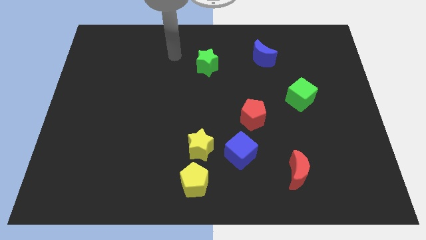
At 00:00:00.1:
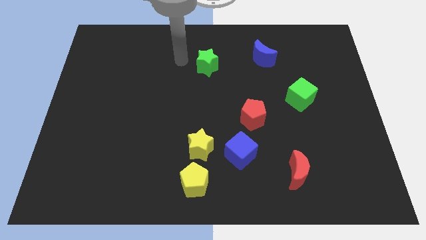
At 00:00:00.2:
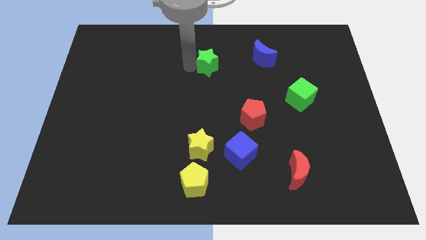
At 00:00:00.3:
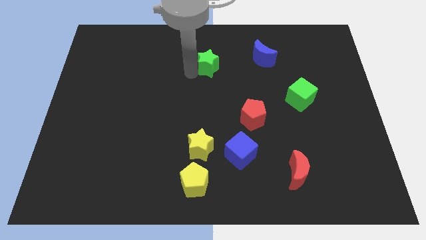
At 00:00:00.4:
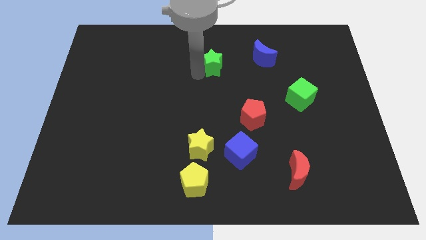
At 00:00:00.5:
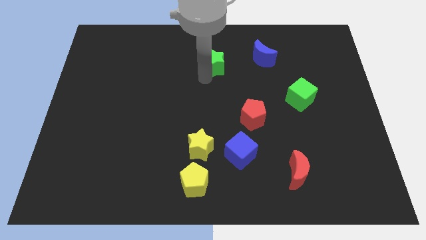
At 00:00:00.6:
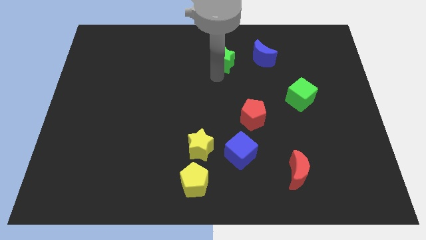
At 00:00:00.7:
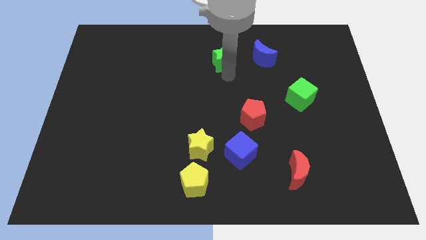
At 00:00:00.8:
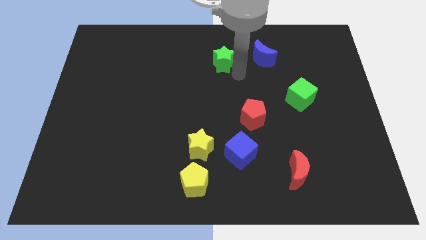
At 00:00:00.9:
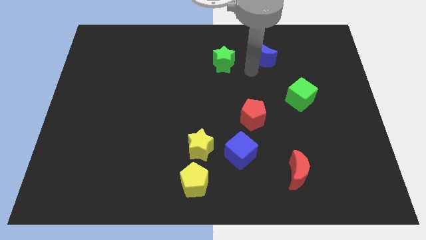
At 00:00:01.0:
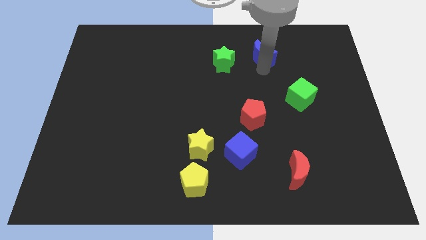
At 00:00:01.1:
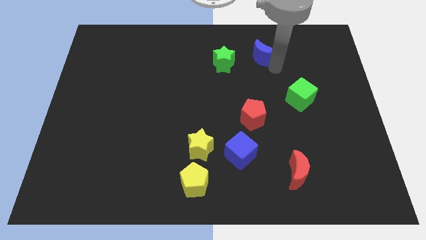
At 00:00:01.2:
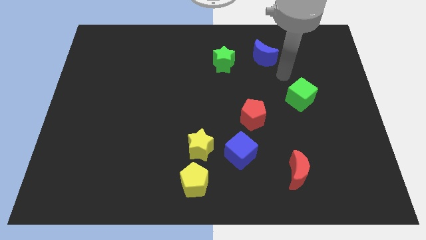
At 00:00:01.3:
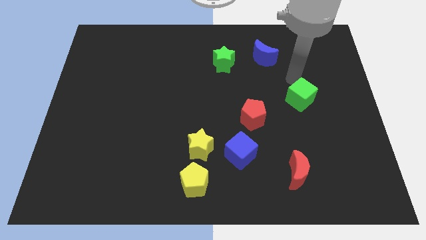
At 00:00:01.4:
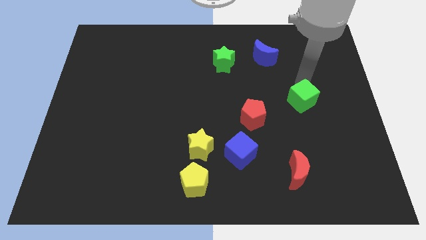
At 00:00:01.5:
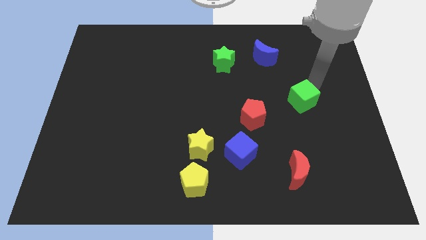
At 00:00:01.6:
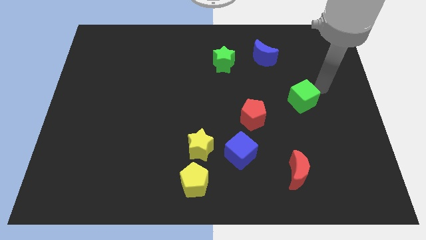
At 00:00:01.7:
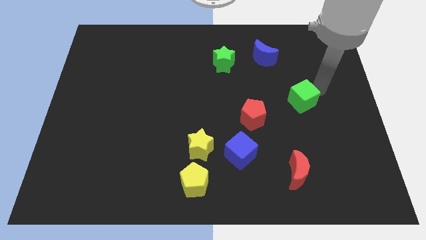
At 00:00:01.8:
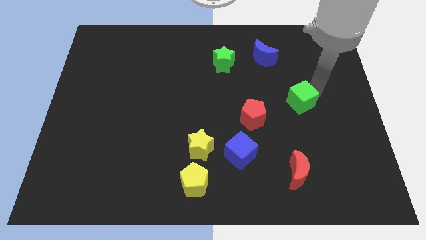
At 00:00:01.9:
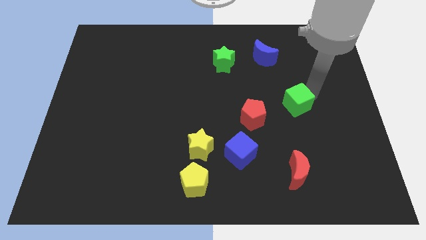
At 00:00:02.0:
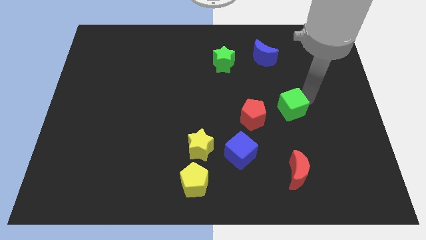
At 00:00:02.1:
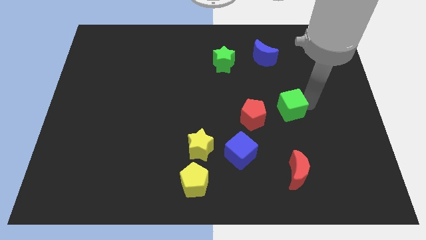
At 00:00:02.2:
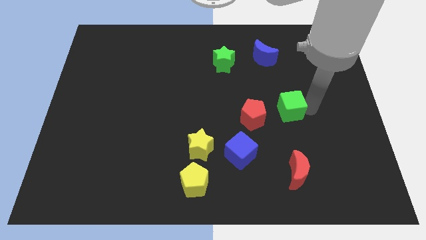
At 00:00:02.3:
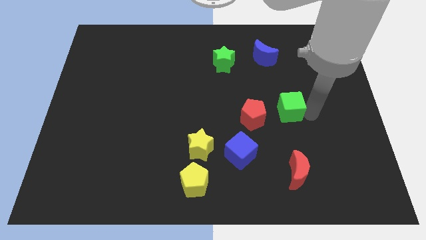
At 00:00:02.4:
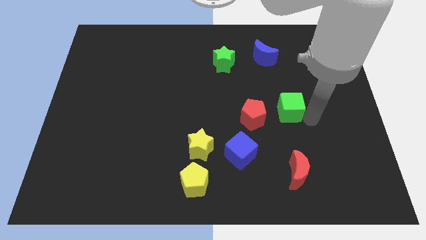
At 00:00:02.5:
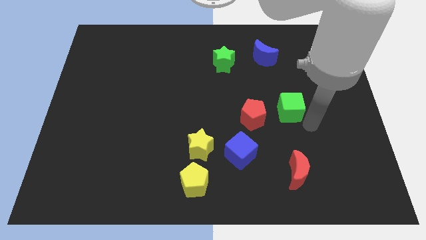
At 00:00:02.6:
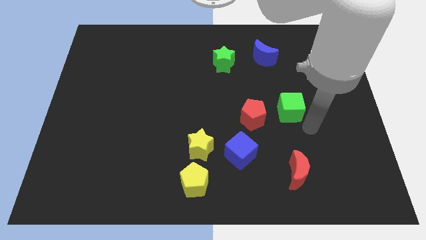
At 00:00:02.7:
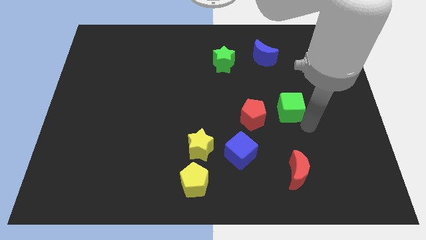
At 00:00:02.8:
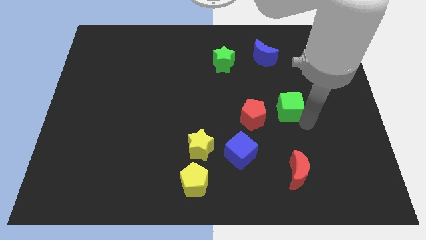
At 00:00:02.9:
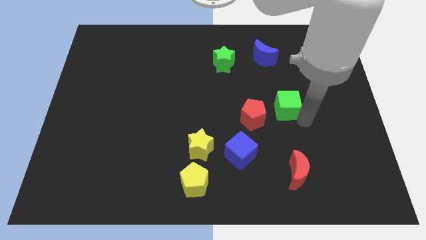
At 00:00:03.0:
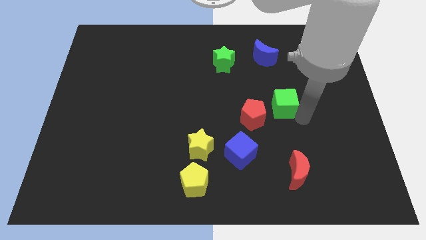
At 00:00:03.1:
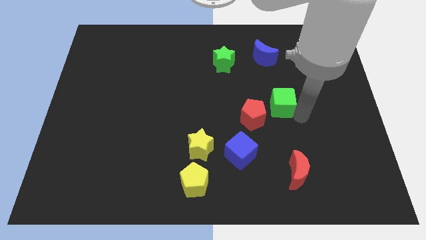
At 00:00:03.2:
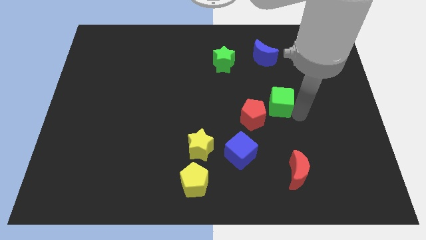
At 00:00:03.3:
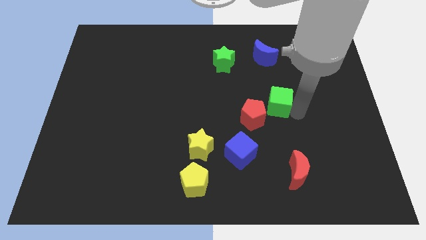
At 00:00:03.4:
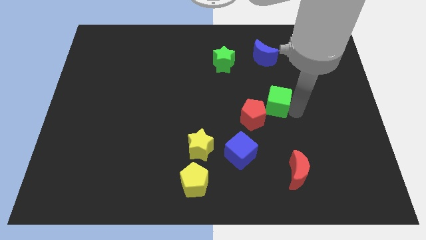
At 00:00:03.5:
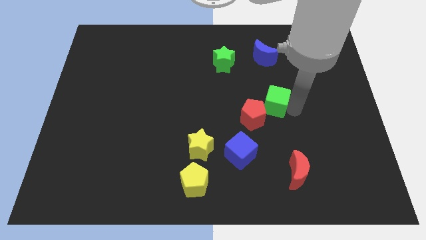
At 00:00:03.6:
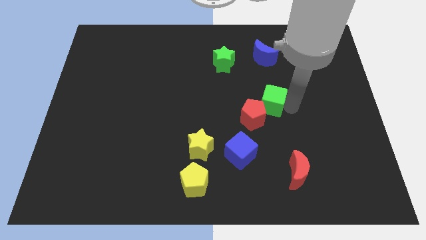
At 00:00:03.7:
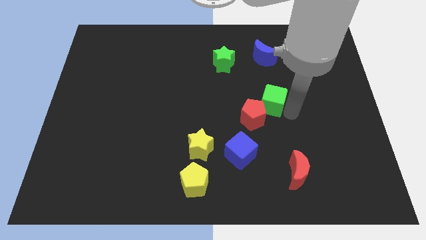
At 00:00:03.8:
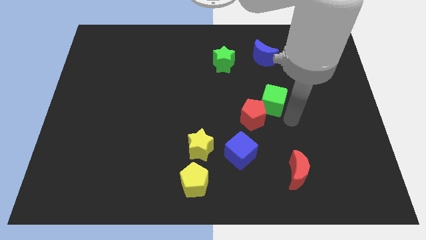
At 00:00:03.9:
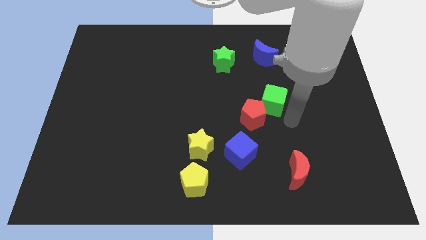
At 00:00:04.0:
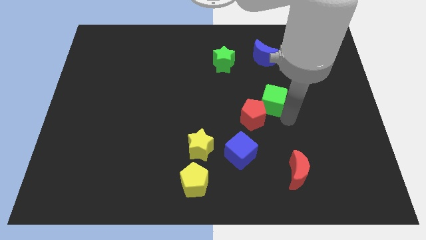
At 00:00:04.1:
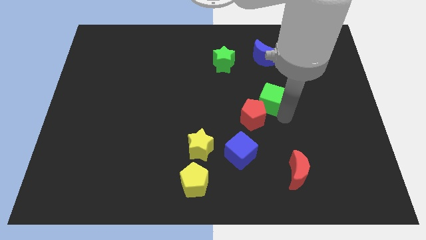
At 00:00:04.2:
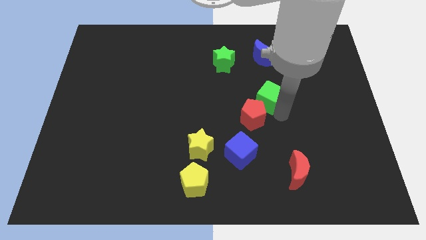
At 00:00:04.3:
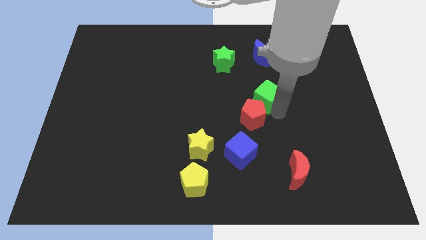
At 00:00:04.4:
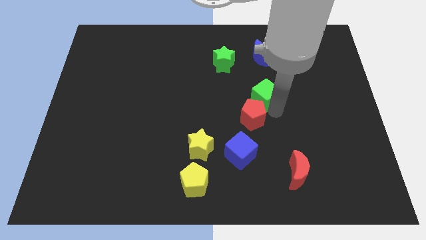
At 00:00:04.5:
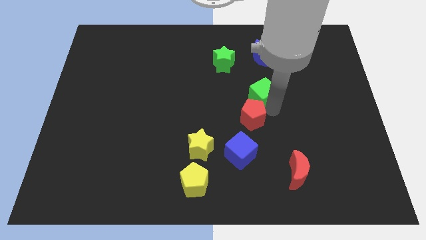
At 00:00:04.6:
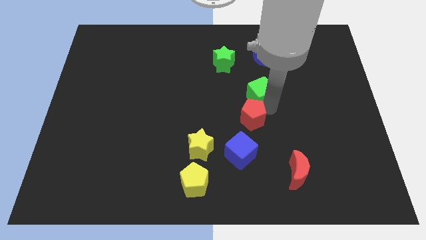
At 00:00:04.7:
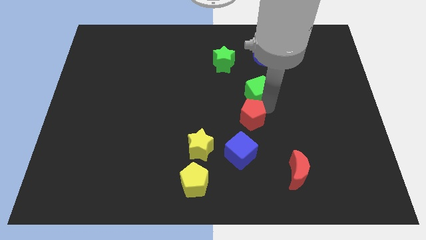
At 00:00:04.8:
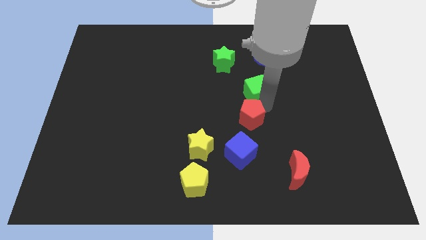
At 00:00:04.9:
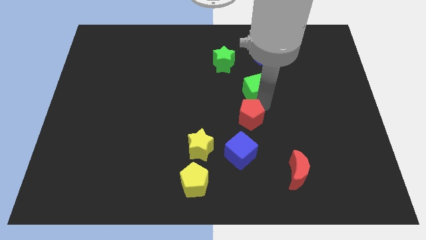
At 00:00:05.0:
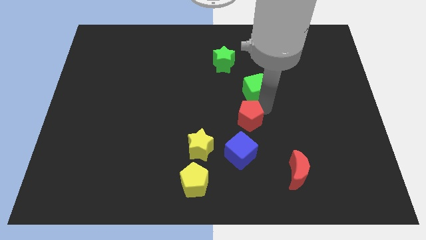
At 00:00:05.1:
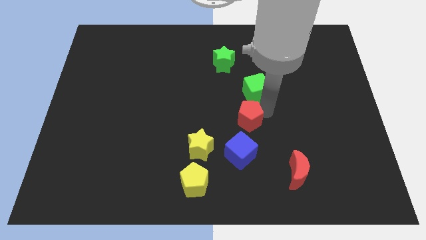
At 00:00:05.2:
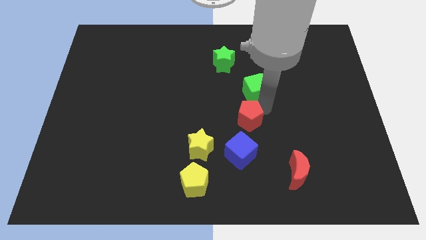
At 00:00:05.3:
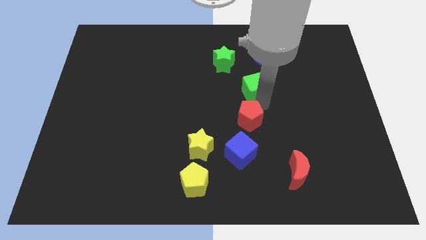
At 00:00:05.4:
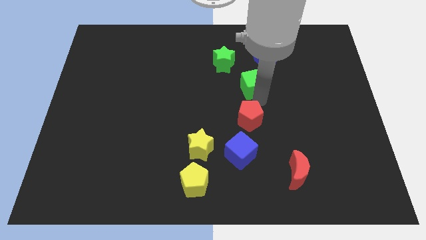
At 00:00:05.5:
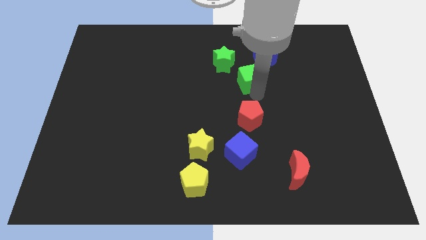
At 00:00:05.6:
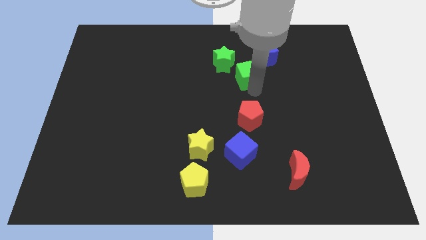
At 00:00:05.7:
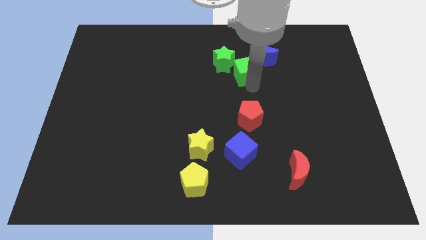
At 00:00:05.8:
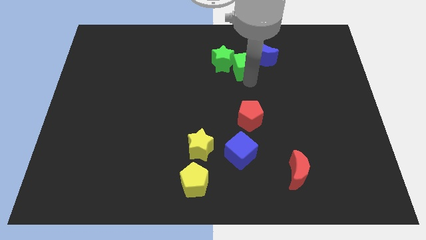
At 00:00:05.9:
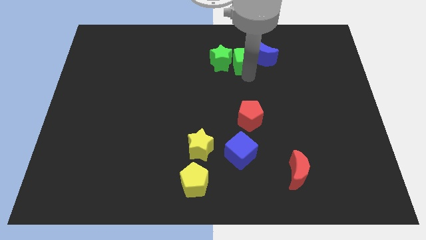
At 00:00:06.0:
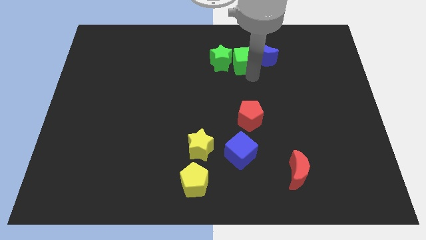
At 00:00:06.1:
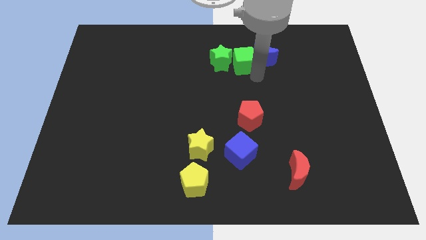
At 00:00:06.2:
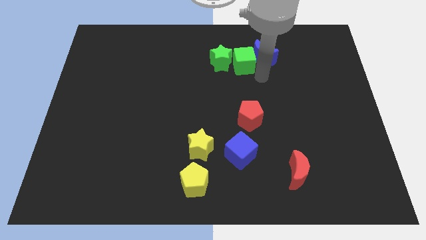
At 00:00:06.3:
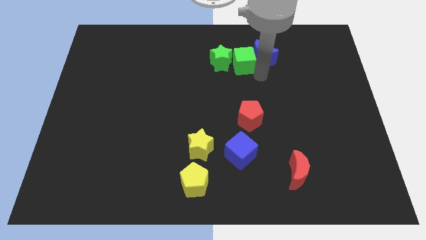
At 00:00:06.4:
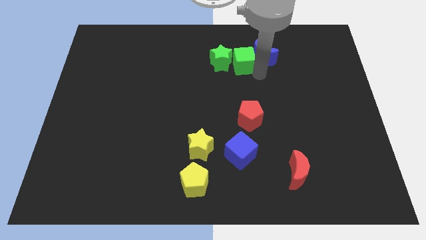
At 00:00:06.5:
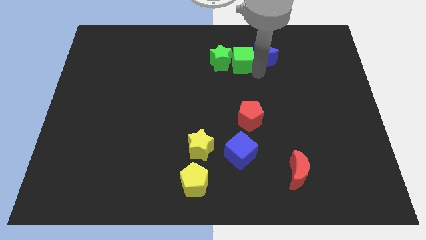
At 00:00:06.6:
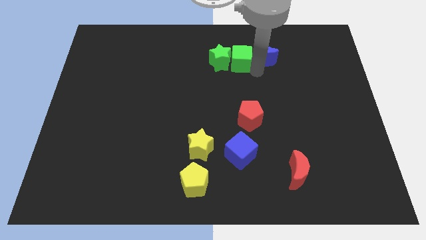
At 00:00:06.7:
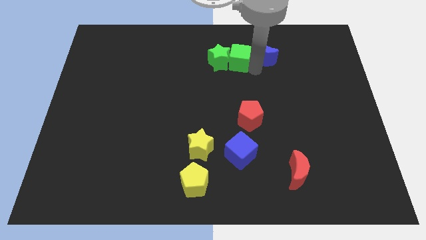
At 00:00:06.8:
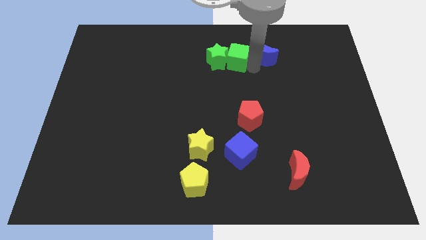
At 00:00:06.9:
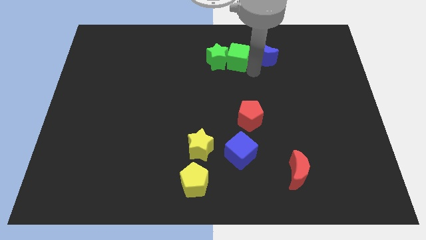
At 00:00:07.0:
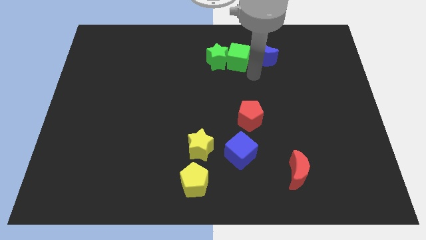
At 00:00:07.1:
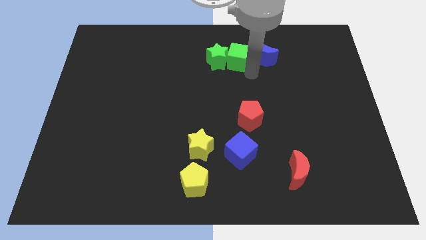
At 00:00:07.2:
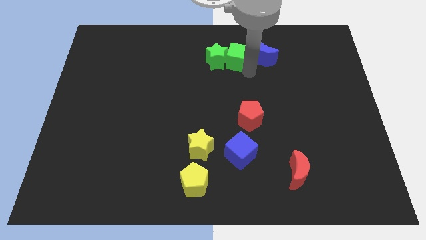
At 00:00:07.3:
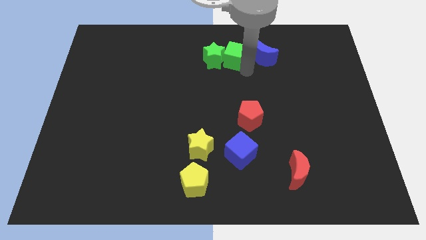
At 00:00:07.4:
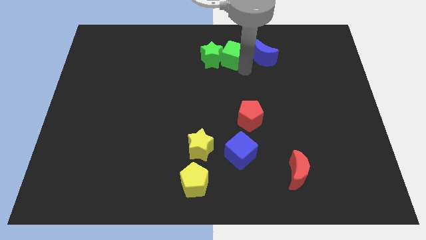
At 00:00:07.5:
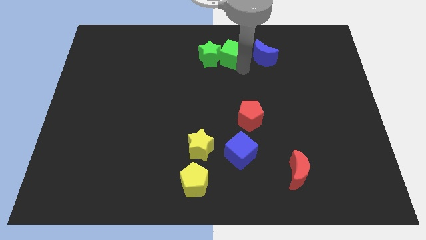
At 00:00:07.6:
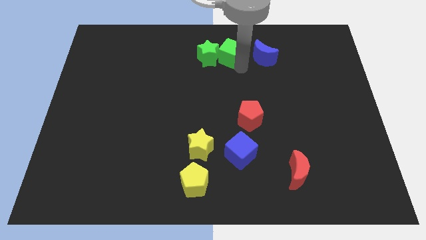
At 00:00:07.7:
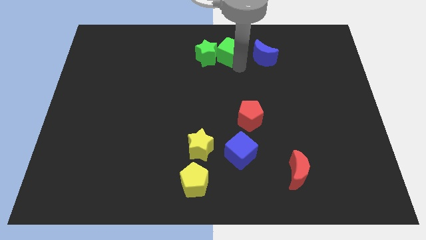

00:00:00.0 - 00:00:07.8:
move the green cube to the top side
